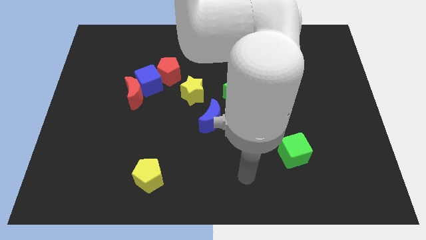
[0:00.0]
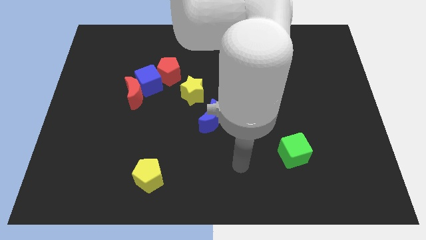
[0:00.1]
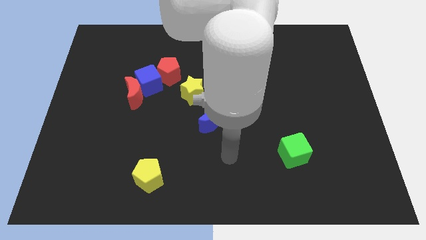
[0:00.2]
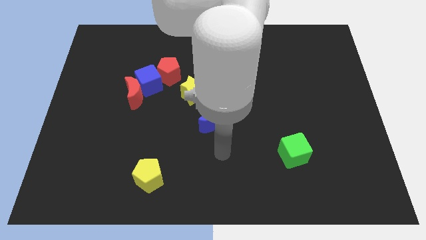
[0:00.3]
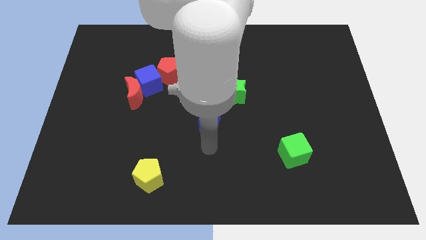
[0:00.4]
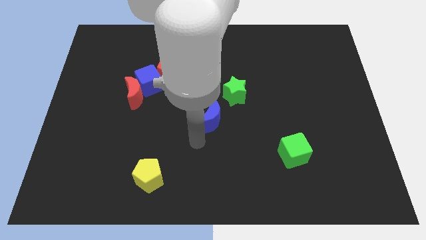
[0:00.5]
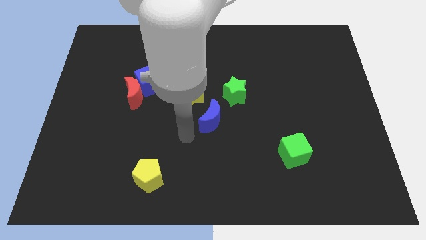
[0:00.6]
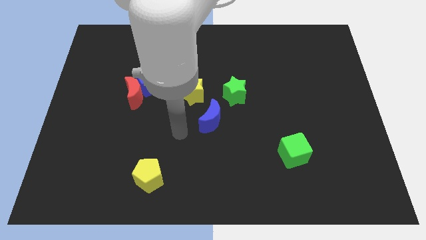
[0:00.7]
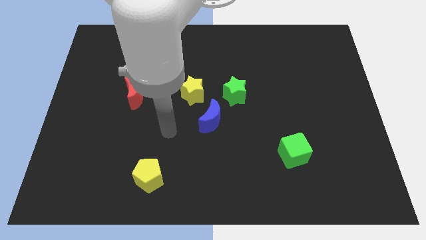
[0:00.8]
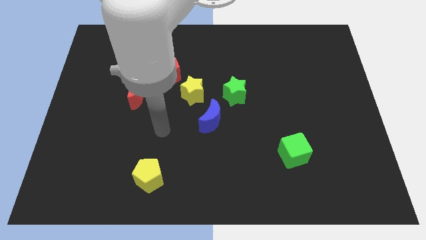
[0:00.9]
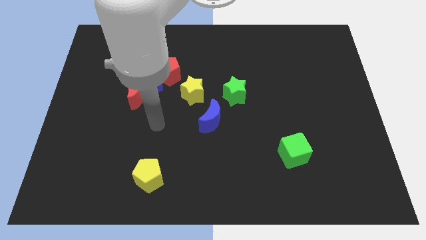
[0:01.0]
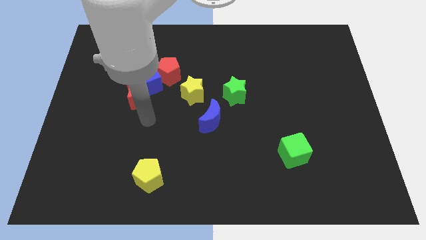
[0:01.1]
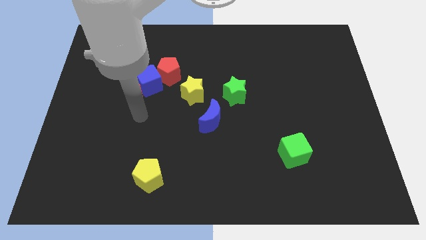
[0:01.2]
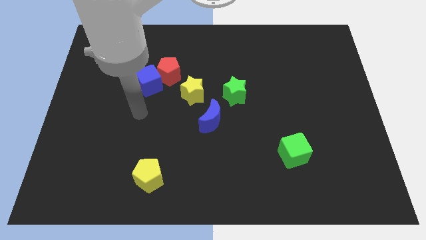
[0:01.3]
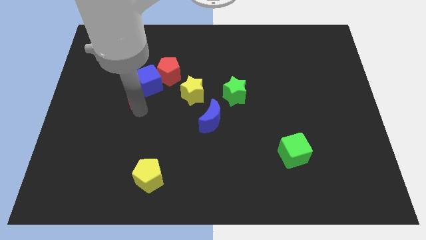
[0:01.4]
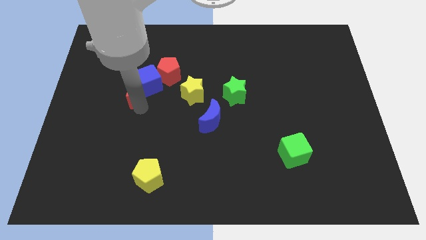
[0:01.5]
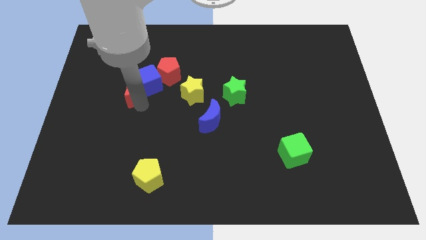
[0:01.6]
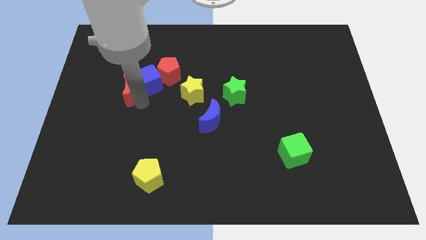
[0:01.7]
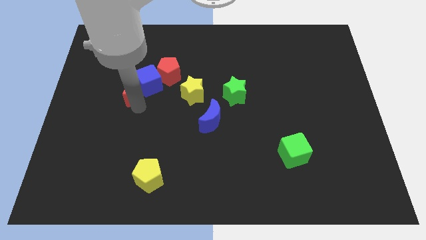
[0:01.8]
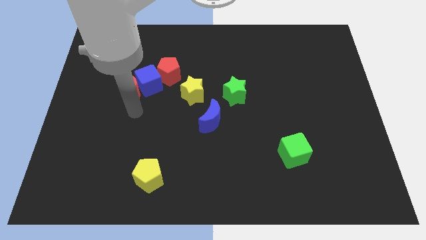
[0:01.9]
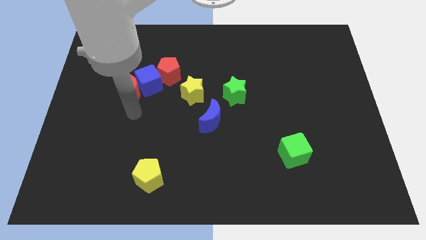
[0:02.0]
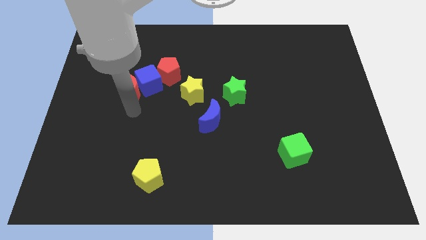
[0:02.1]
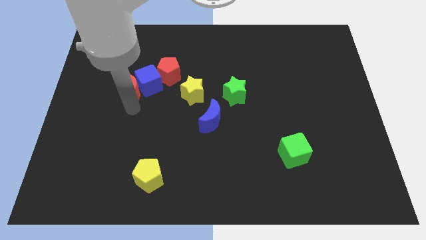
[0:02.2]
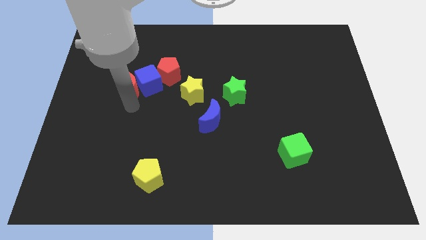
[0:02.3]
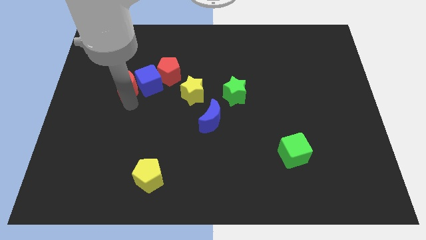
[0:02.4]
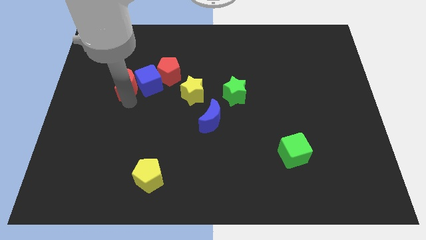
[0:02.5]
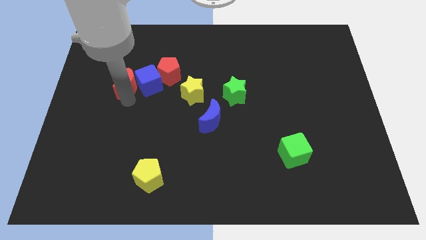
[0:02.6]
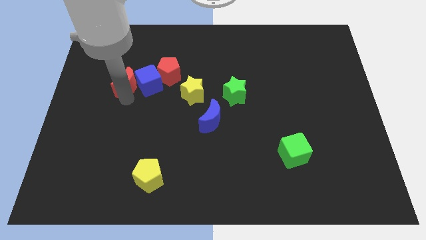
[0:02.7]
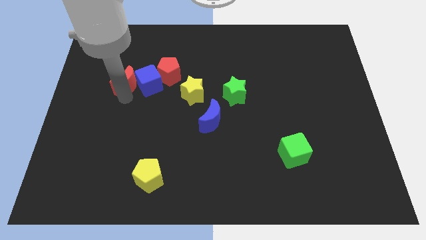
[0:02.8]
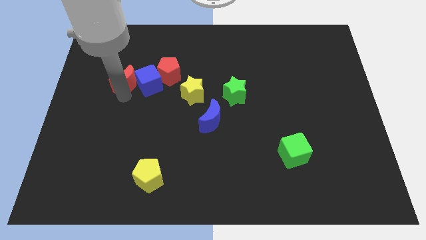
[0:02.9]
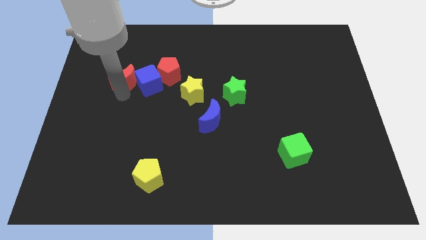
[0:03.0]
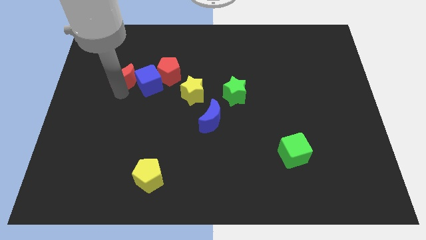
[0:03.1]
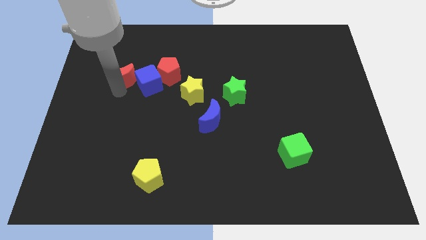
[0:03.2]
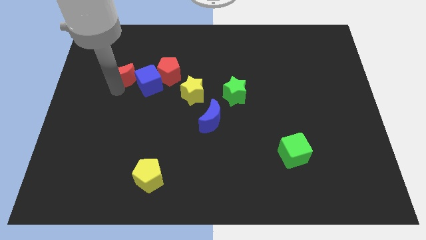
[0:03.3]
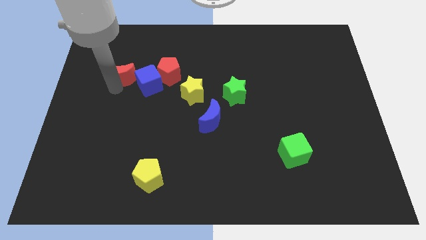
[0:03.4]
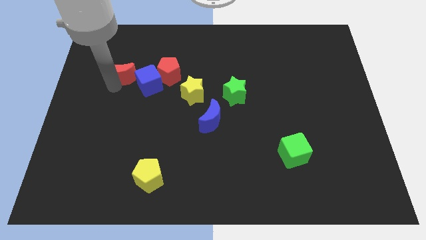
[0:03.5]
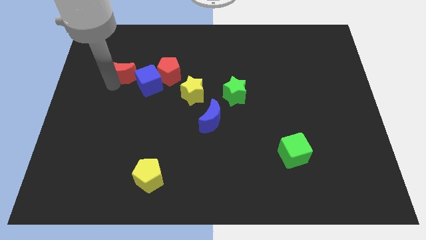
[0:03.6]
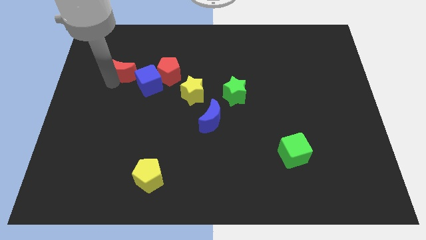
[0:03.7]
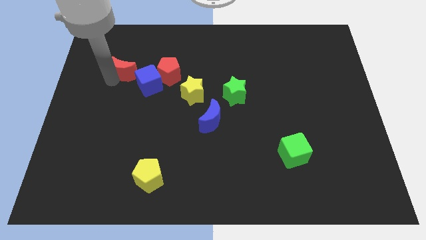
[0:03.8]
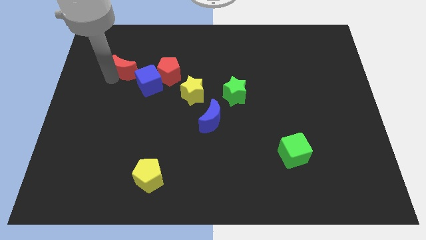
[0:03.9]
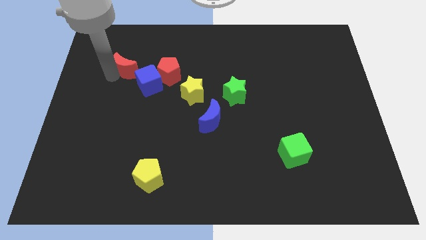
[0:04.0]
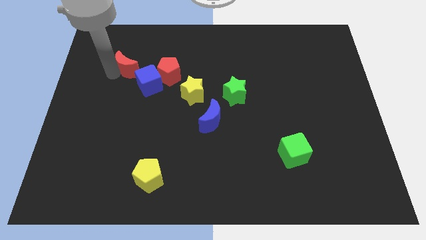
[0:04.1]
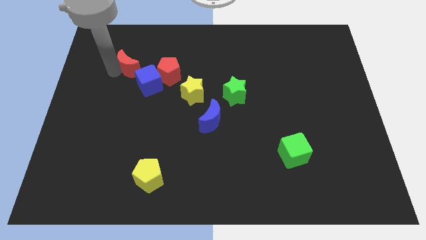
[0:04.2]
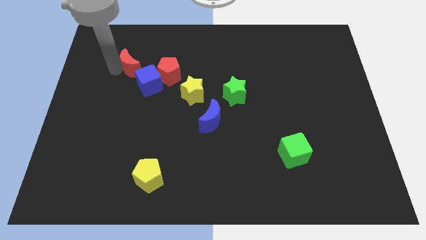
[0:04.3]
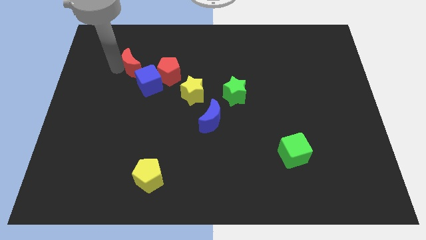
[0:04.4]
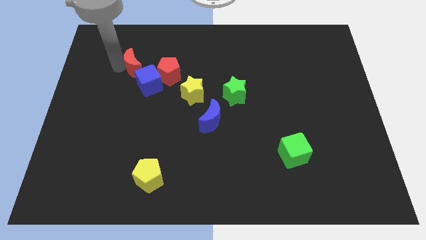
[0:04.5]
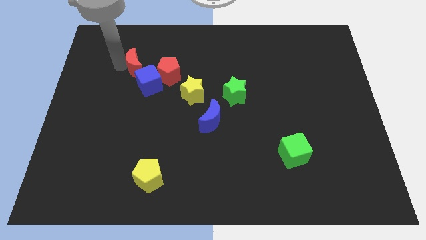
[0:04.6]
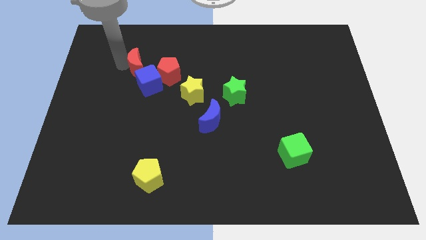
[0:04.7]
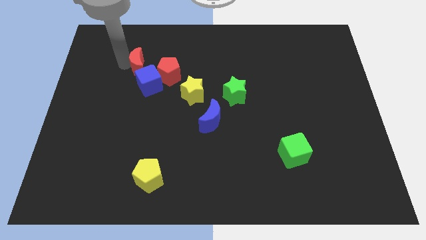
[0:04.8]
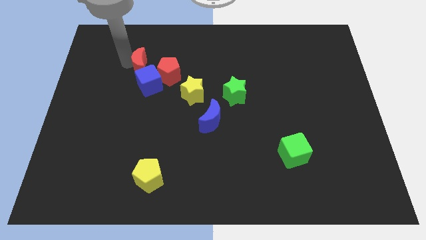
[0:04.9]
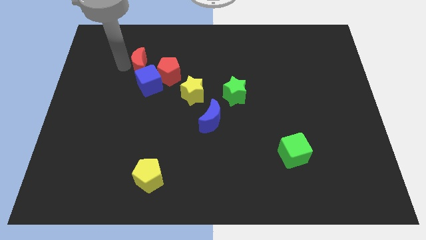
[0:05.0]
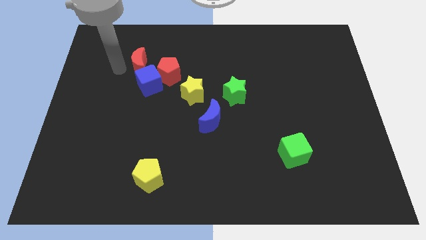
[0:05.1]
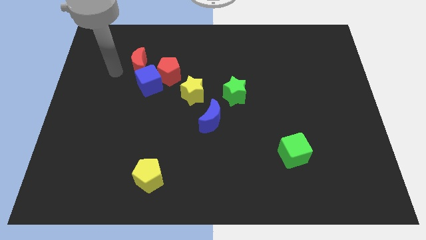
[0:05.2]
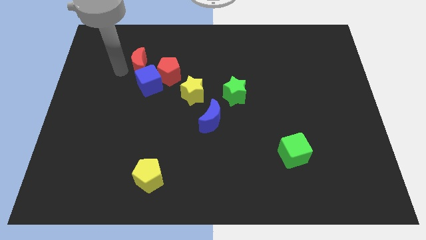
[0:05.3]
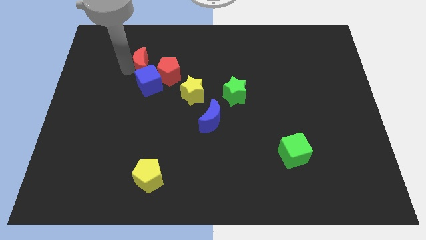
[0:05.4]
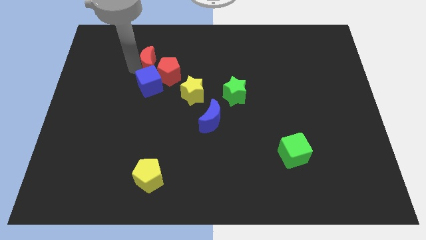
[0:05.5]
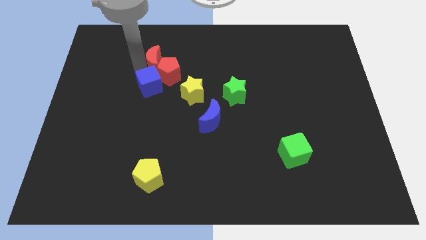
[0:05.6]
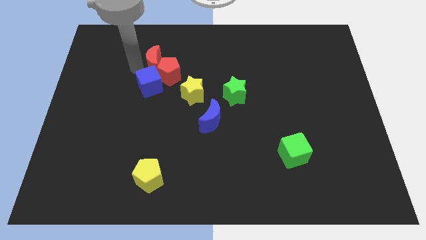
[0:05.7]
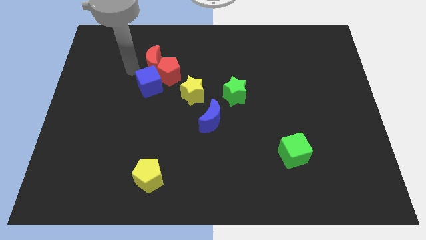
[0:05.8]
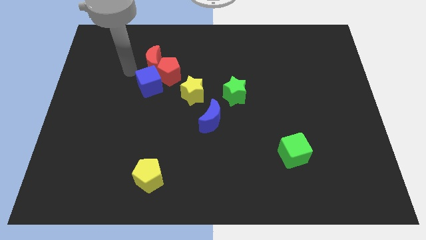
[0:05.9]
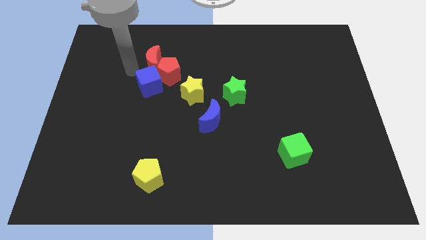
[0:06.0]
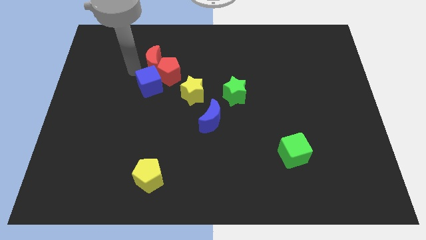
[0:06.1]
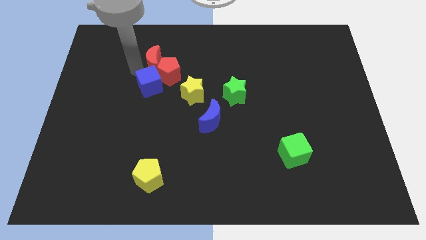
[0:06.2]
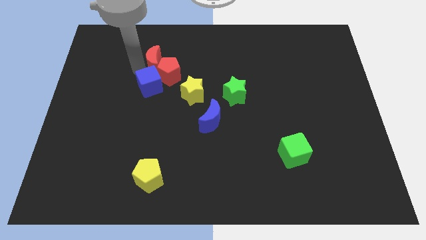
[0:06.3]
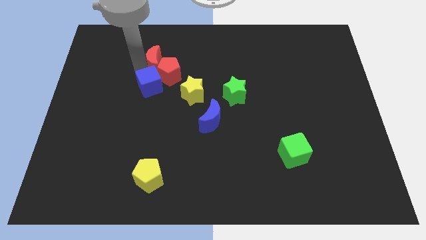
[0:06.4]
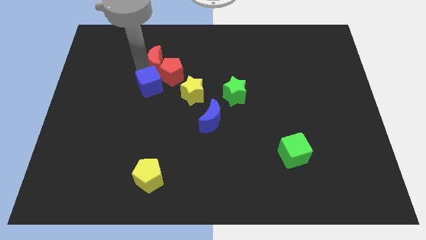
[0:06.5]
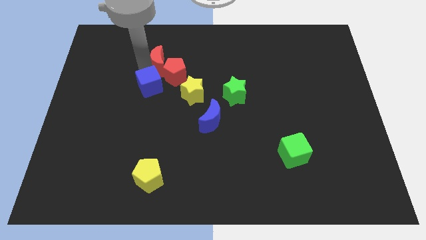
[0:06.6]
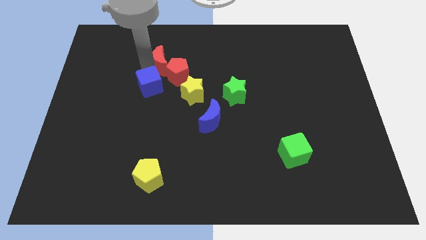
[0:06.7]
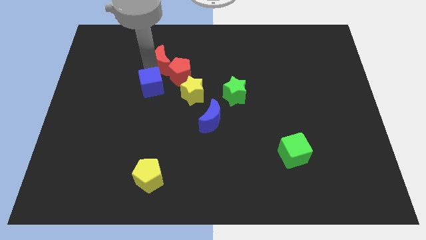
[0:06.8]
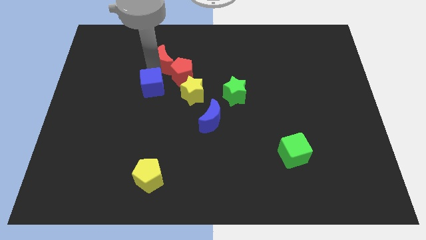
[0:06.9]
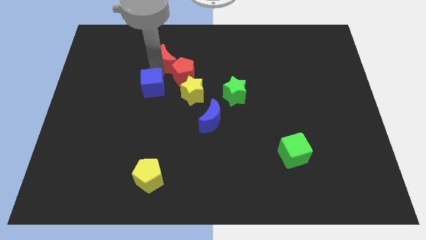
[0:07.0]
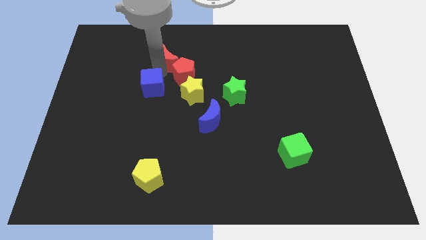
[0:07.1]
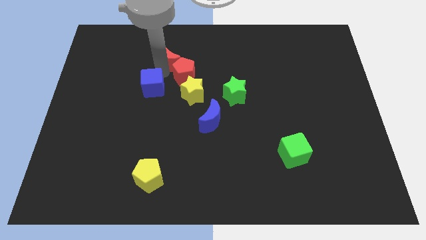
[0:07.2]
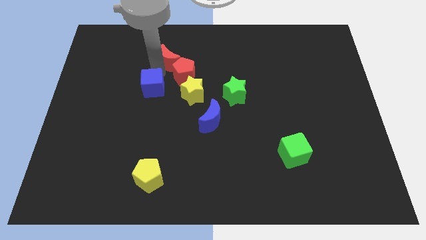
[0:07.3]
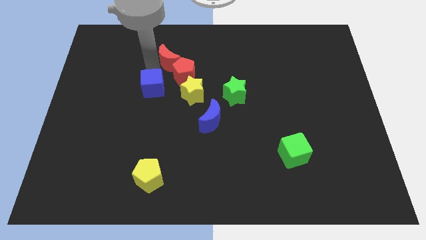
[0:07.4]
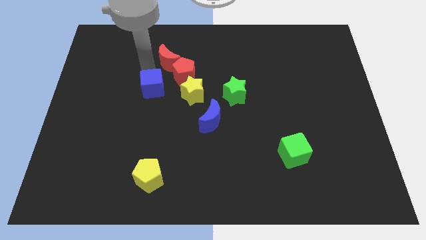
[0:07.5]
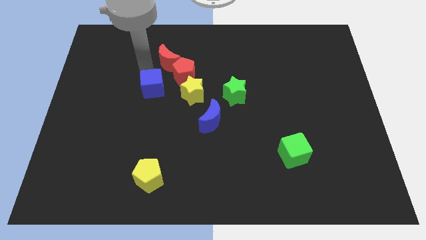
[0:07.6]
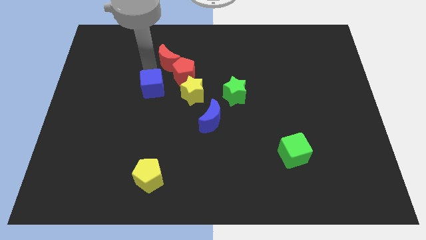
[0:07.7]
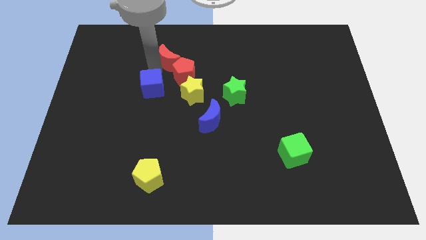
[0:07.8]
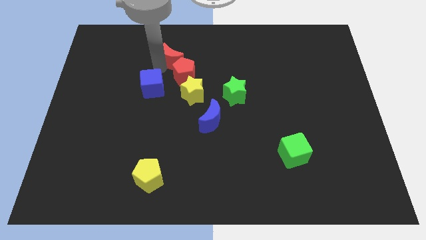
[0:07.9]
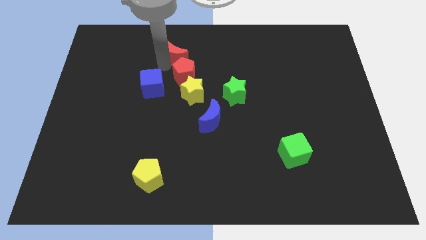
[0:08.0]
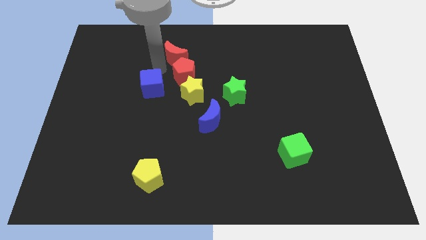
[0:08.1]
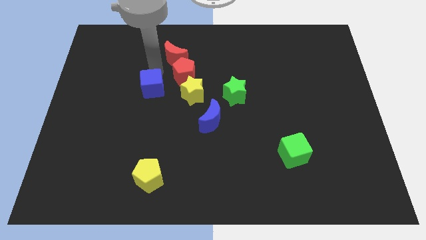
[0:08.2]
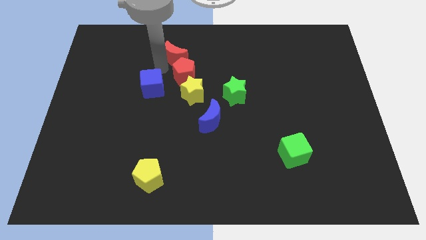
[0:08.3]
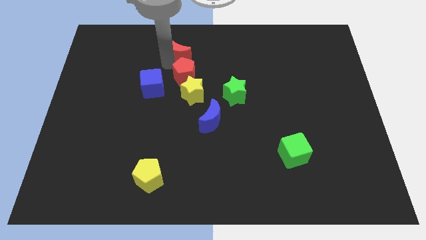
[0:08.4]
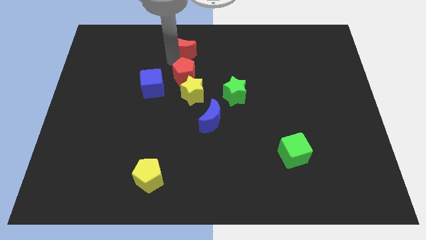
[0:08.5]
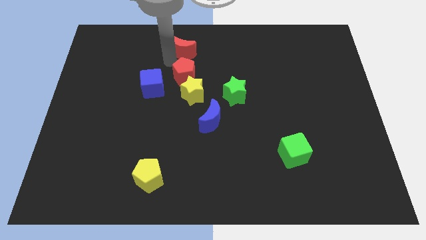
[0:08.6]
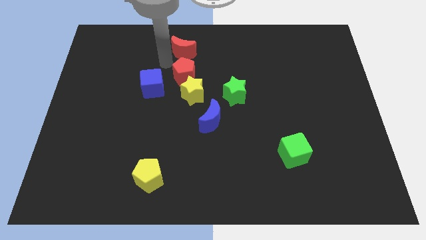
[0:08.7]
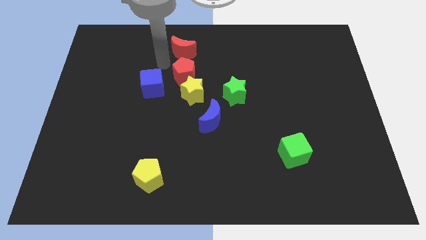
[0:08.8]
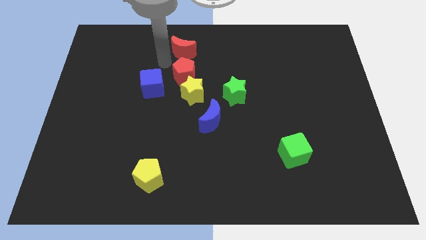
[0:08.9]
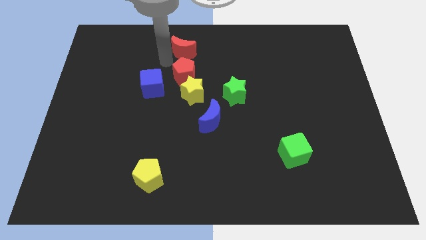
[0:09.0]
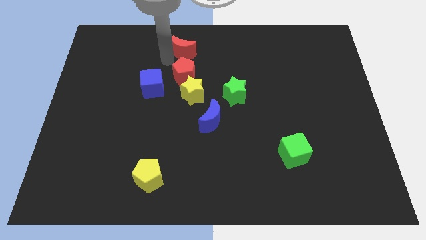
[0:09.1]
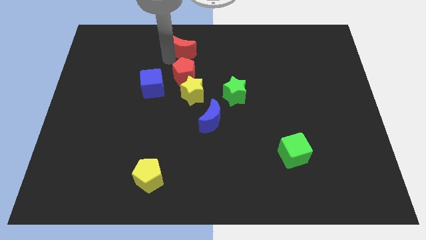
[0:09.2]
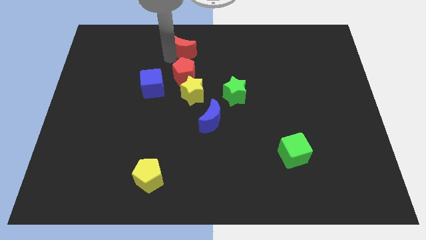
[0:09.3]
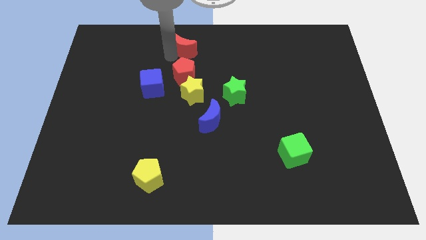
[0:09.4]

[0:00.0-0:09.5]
put the red moon to the top
